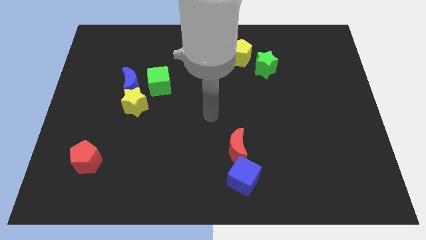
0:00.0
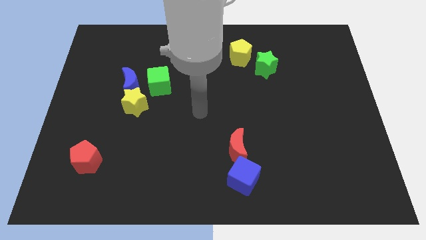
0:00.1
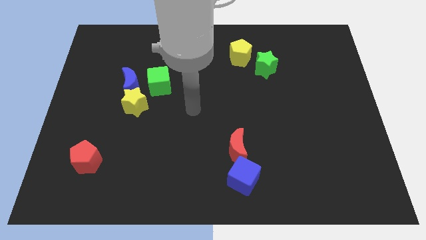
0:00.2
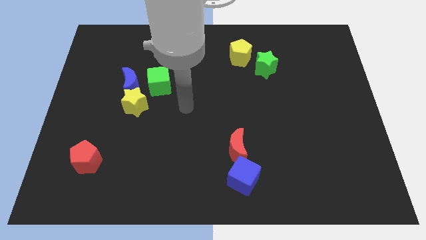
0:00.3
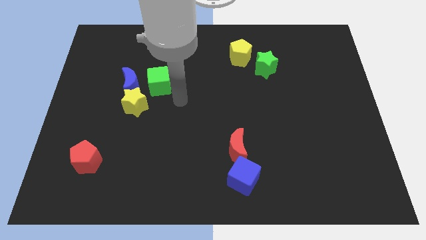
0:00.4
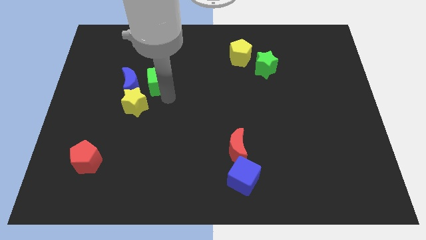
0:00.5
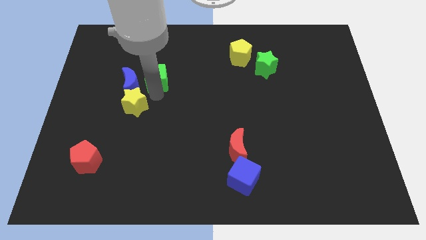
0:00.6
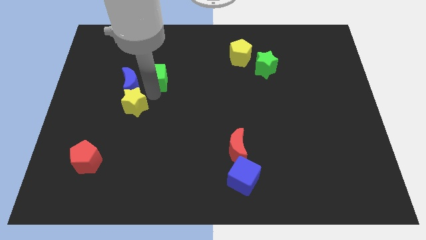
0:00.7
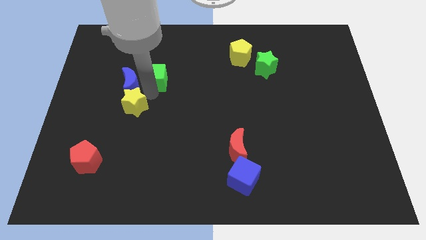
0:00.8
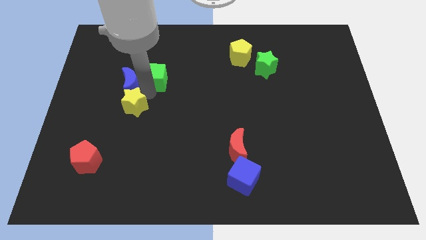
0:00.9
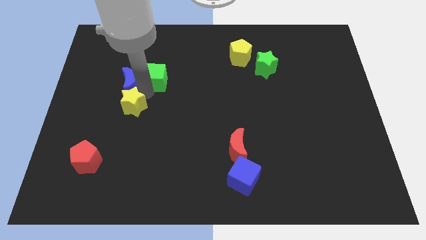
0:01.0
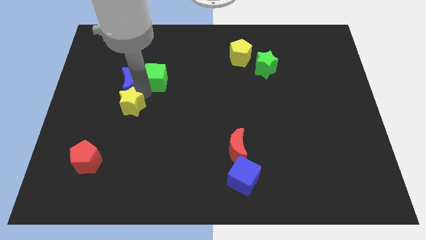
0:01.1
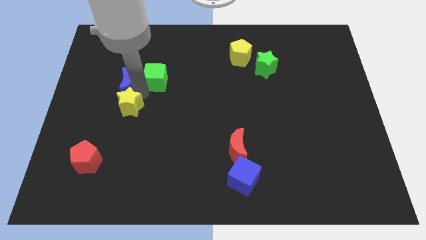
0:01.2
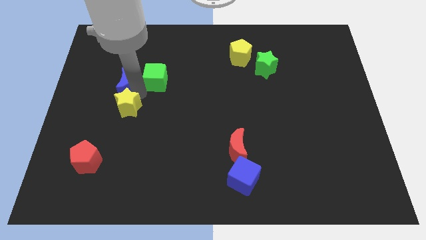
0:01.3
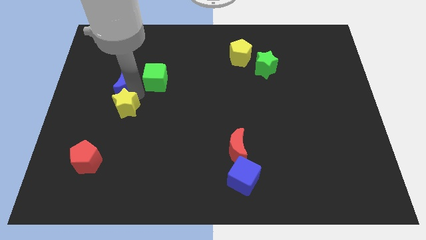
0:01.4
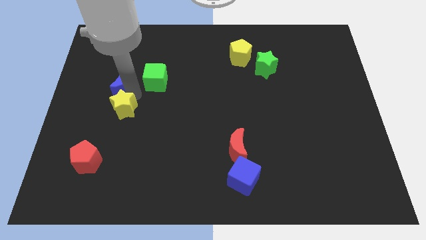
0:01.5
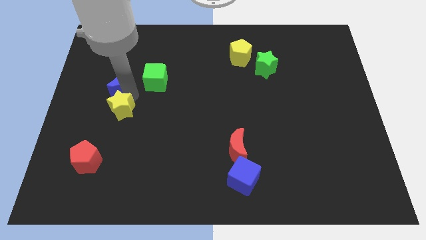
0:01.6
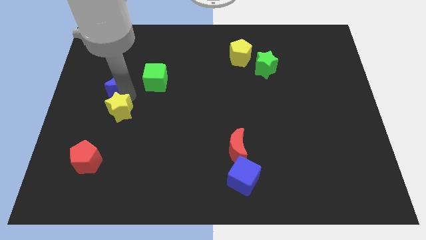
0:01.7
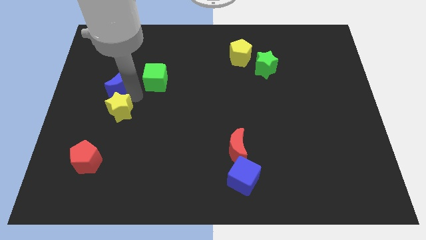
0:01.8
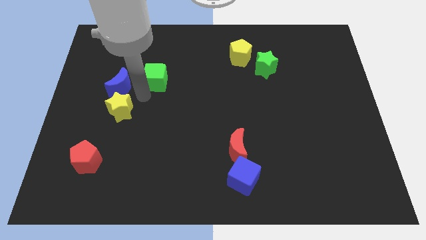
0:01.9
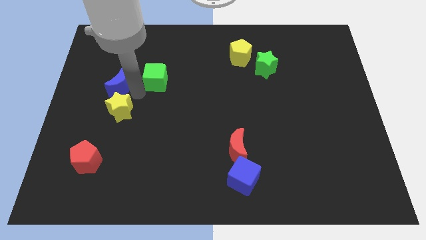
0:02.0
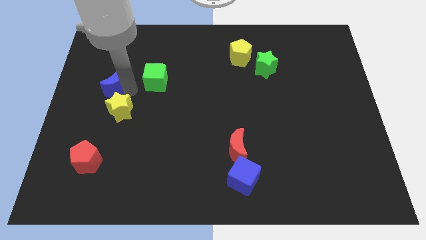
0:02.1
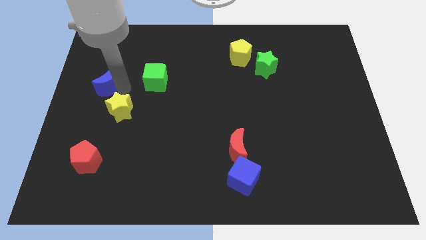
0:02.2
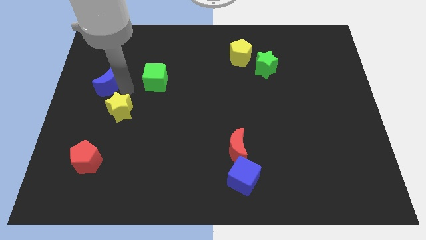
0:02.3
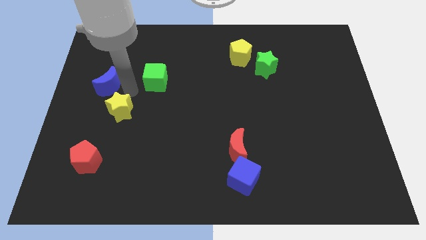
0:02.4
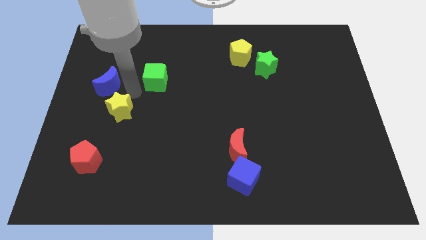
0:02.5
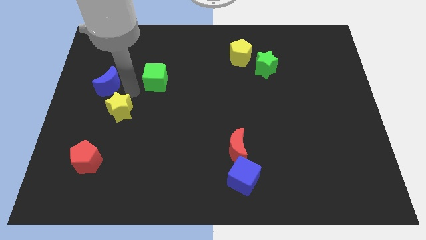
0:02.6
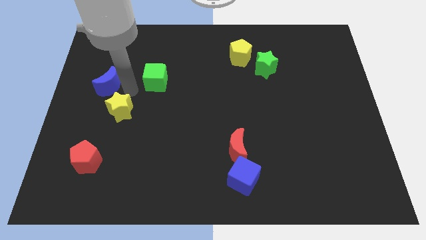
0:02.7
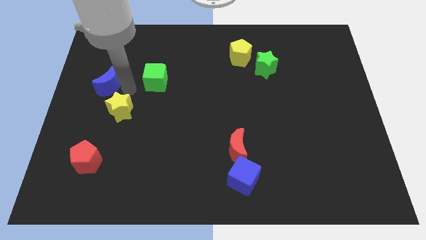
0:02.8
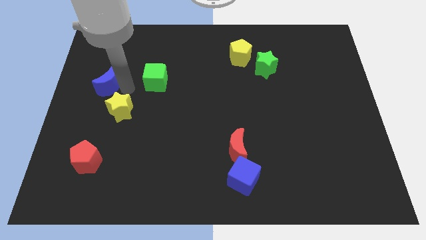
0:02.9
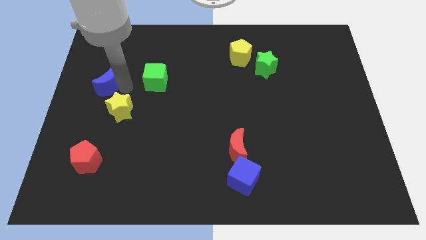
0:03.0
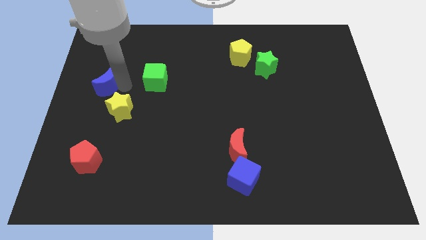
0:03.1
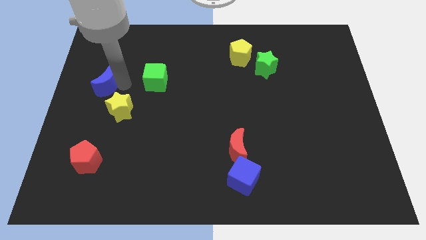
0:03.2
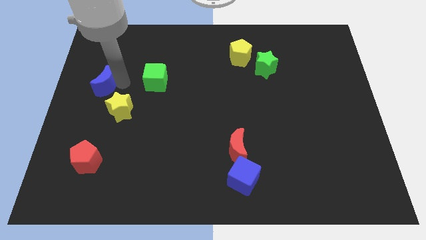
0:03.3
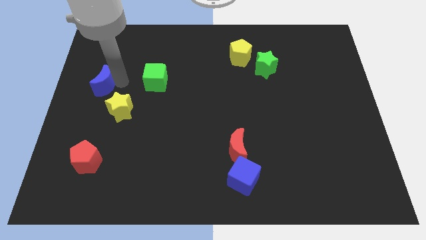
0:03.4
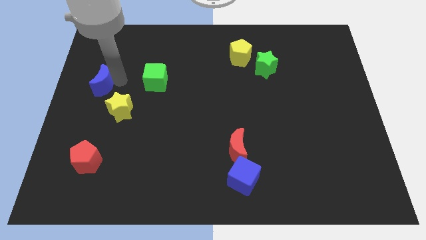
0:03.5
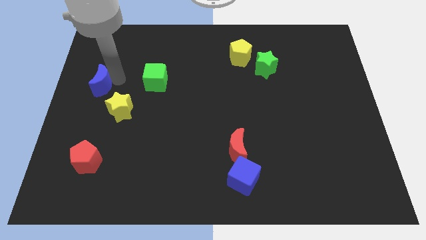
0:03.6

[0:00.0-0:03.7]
move the blue moon away from the yellow star and green cube

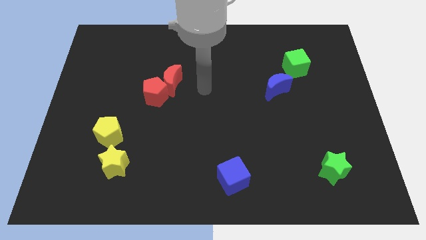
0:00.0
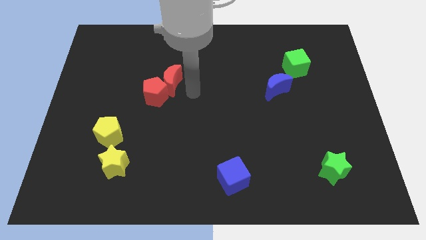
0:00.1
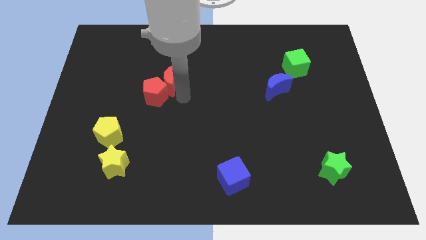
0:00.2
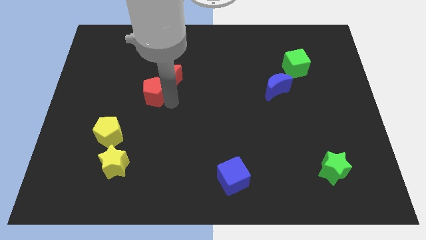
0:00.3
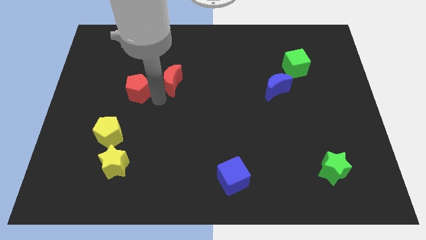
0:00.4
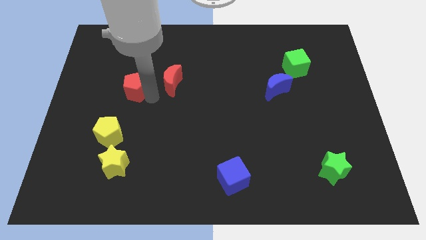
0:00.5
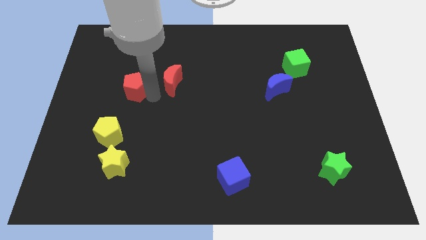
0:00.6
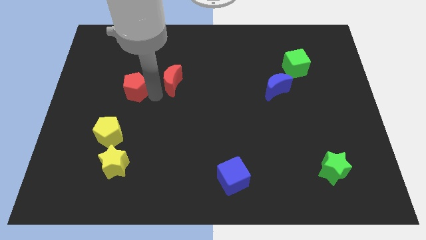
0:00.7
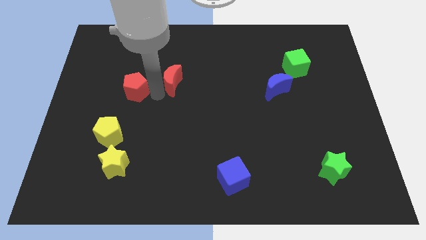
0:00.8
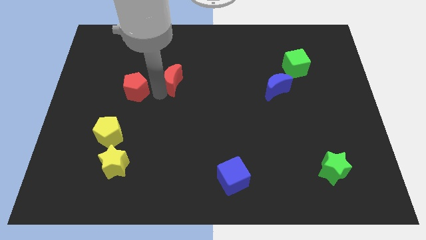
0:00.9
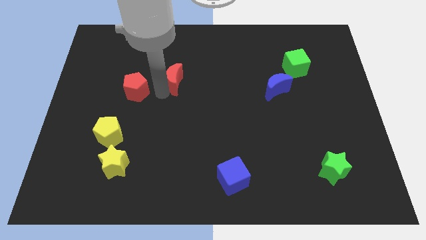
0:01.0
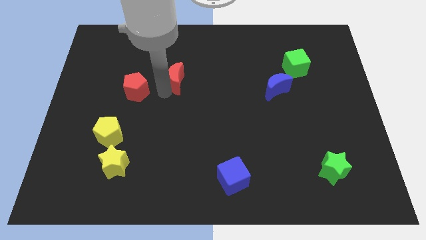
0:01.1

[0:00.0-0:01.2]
pull the red moon apart from the red pentagon

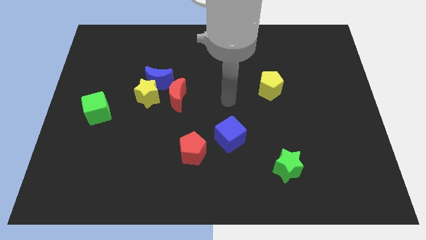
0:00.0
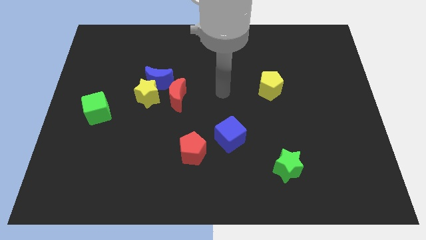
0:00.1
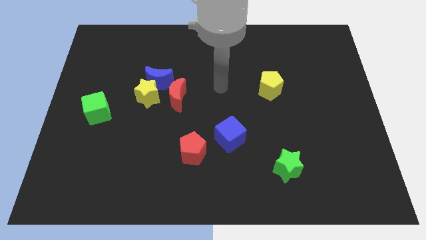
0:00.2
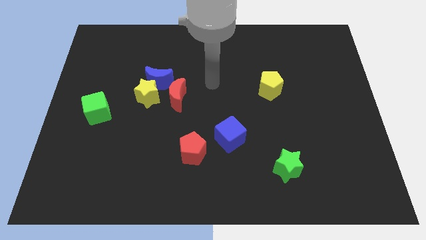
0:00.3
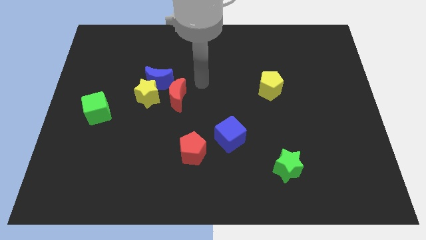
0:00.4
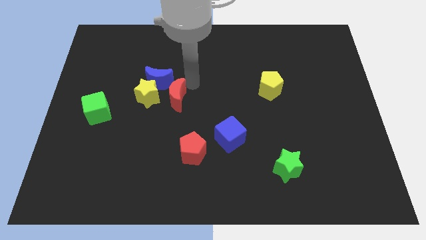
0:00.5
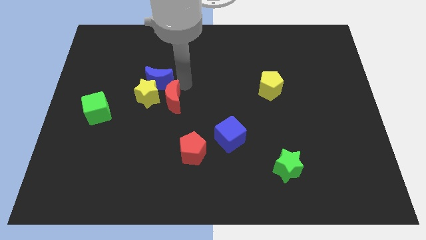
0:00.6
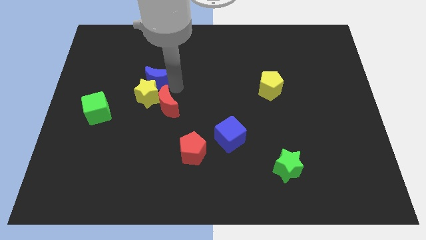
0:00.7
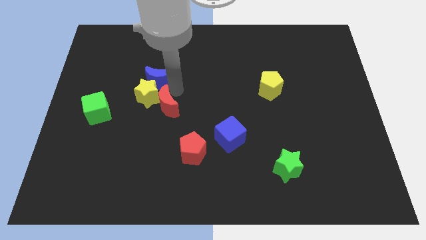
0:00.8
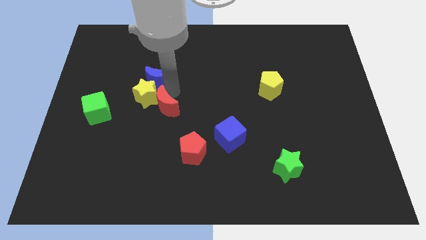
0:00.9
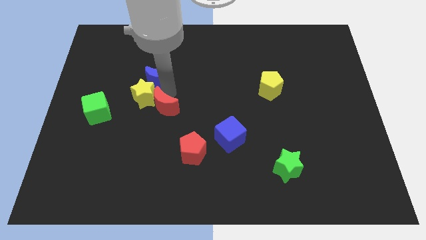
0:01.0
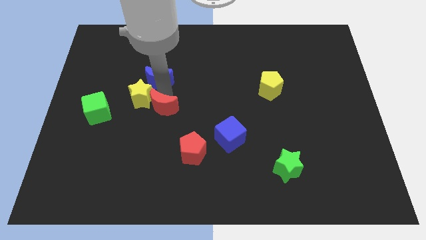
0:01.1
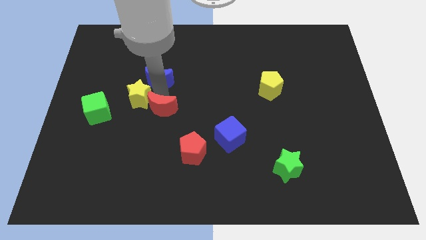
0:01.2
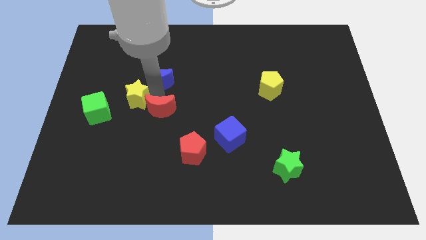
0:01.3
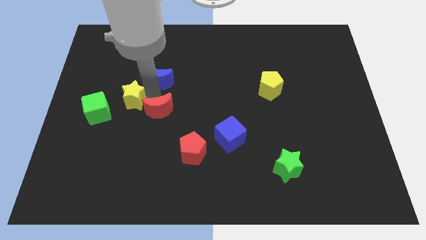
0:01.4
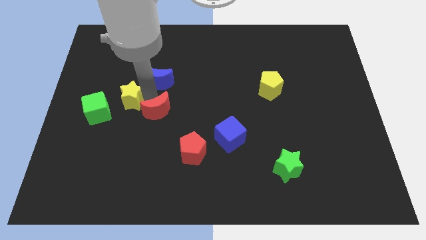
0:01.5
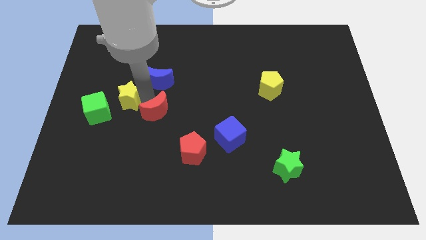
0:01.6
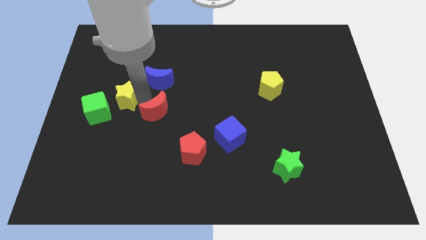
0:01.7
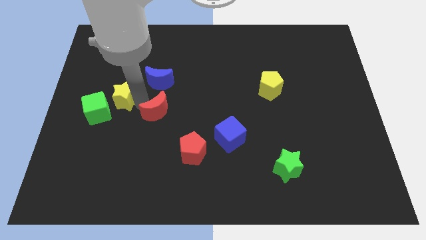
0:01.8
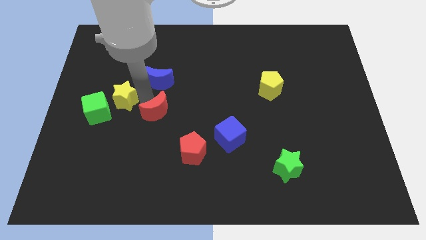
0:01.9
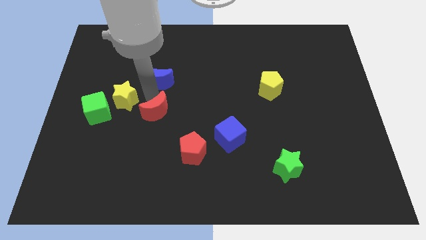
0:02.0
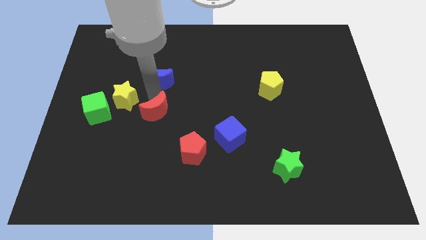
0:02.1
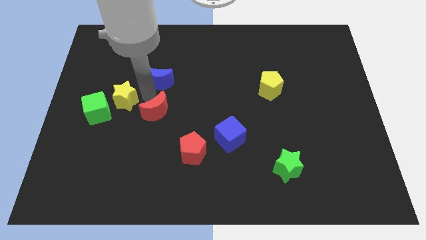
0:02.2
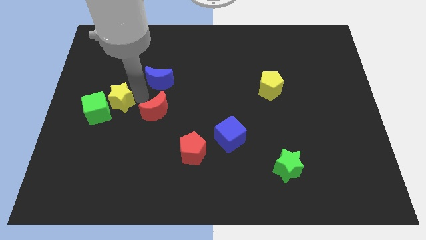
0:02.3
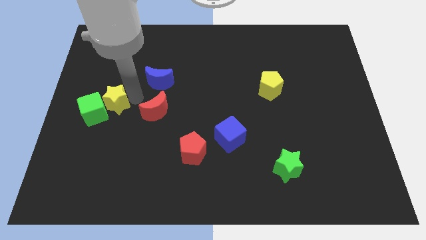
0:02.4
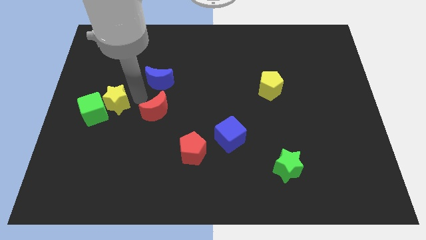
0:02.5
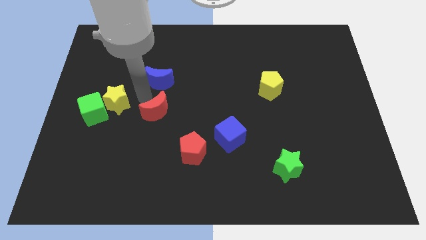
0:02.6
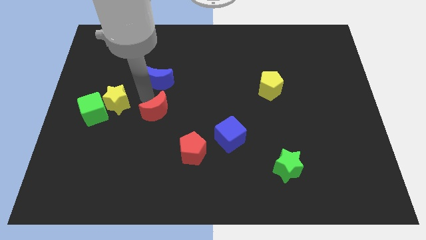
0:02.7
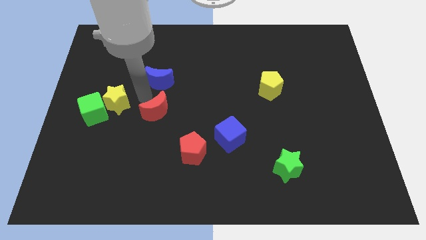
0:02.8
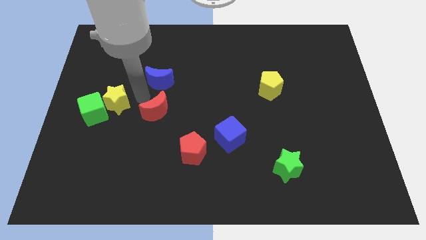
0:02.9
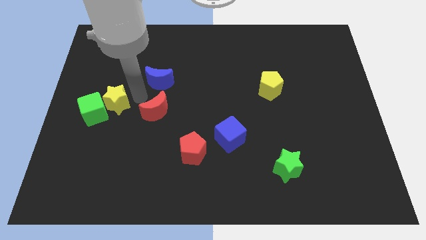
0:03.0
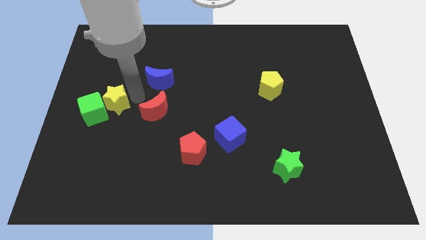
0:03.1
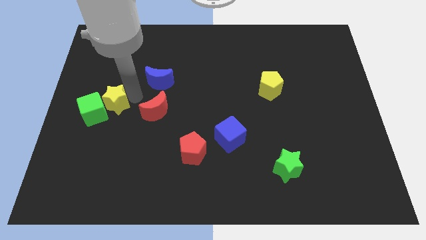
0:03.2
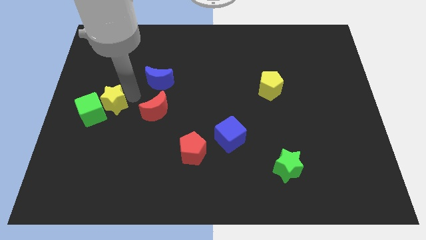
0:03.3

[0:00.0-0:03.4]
pull the yellow star apart from the blue moon and red moon

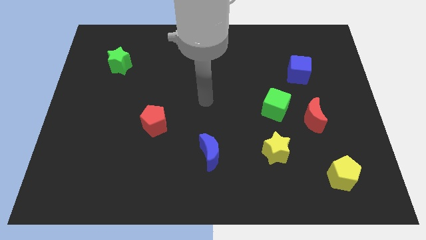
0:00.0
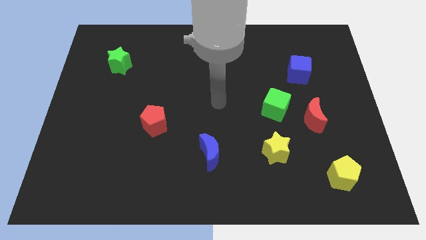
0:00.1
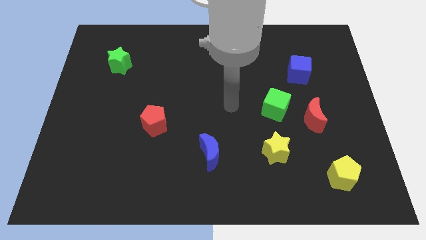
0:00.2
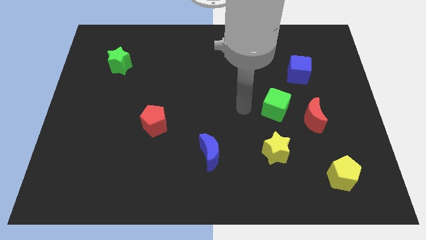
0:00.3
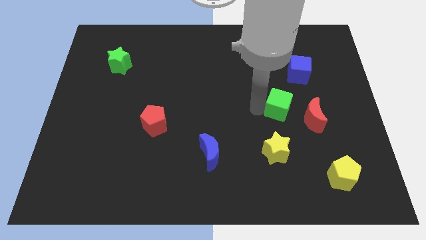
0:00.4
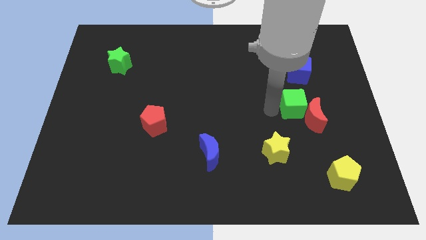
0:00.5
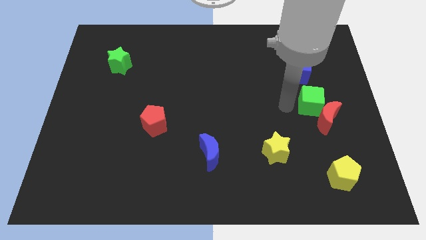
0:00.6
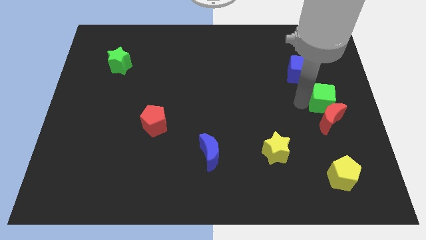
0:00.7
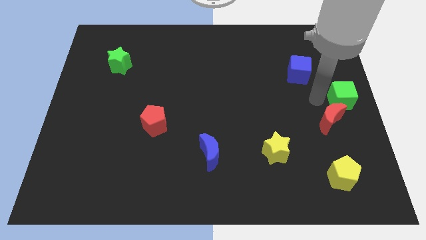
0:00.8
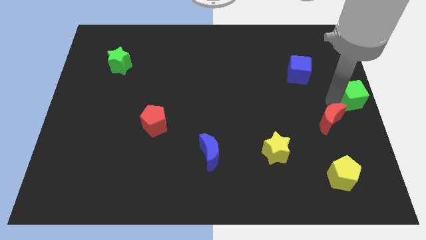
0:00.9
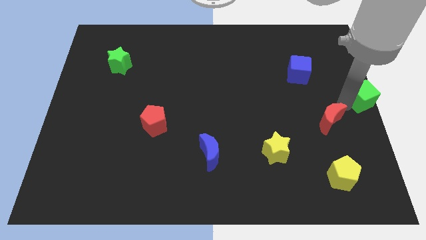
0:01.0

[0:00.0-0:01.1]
move the red moon away from the green cube
